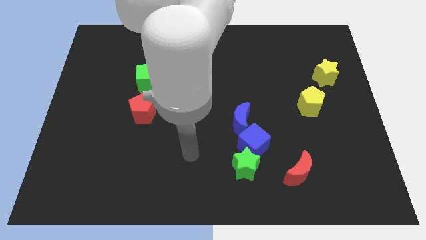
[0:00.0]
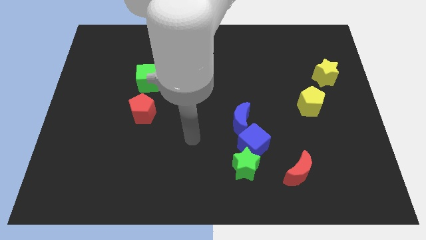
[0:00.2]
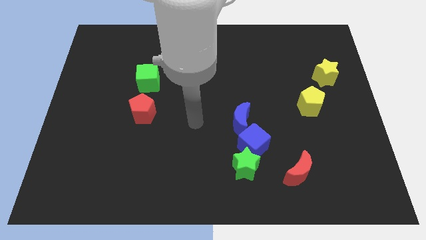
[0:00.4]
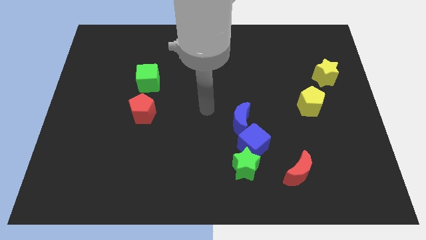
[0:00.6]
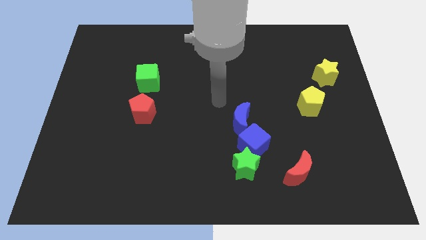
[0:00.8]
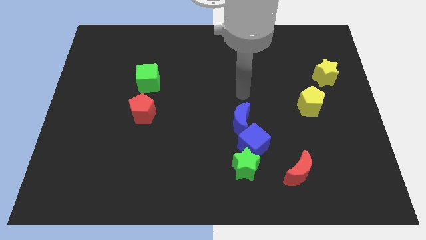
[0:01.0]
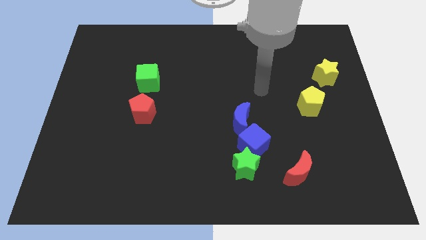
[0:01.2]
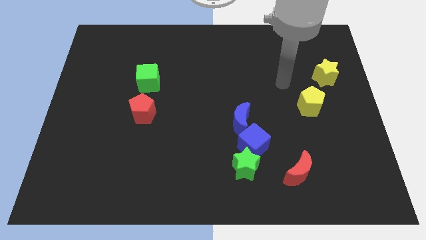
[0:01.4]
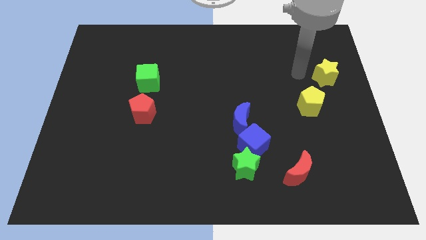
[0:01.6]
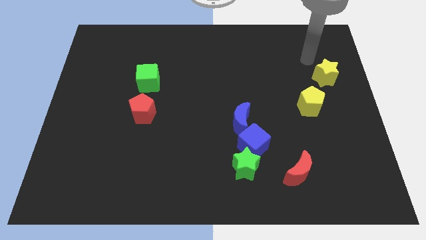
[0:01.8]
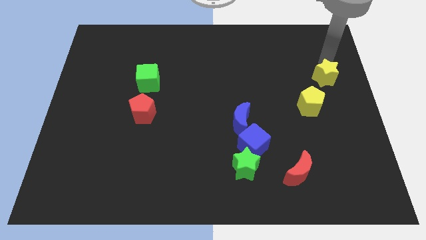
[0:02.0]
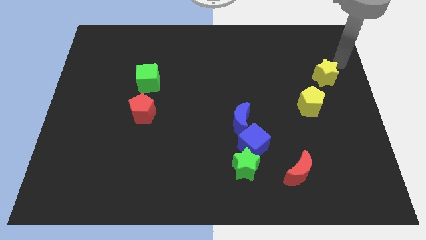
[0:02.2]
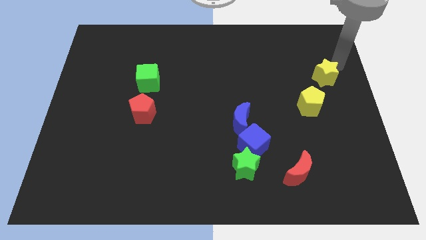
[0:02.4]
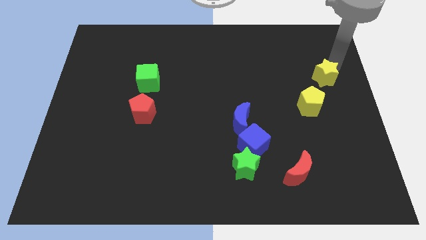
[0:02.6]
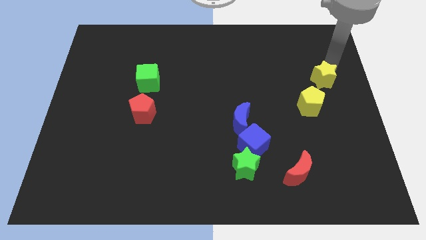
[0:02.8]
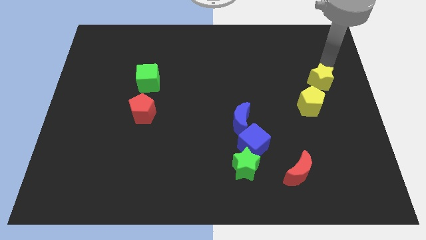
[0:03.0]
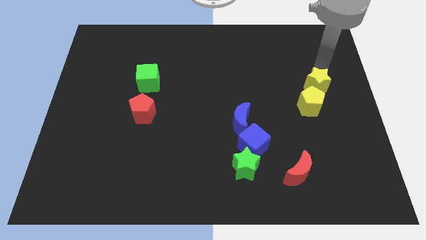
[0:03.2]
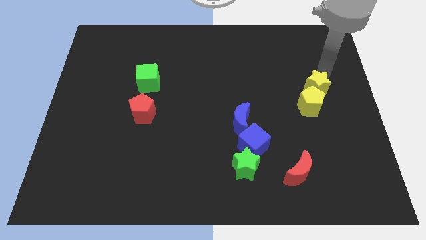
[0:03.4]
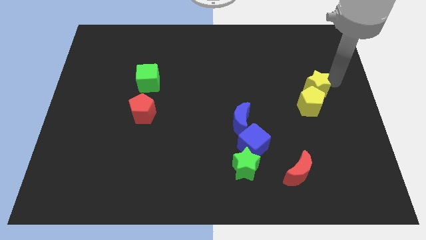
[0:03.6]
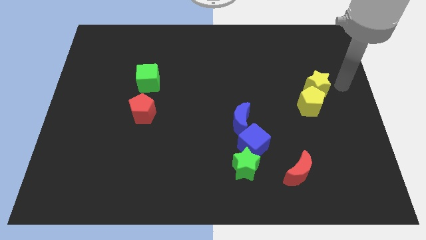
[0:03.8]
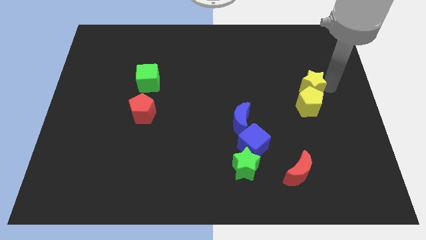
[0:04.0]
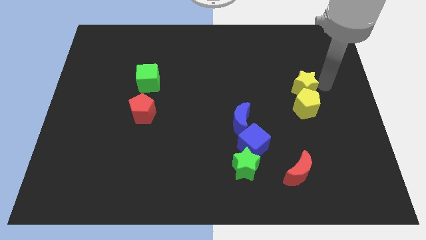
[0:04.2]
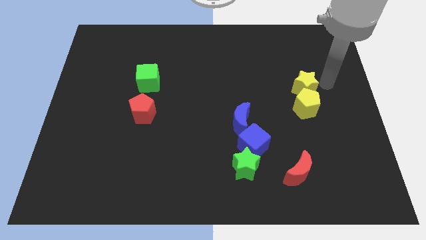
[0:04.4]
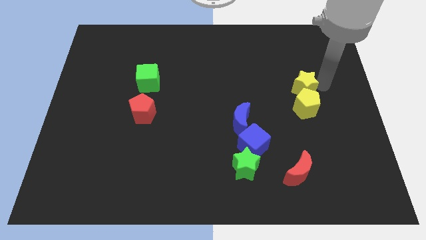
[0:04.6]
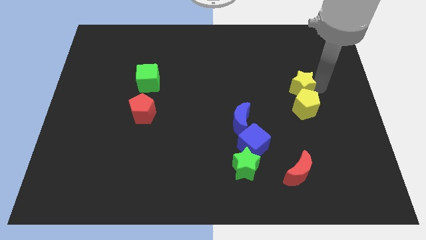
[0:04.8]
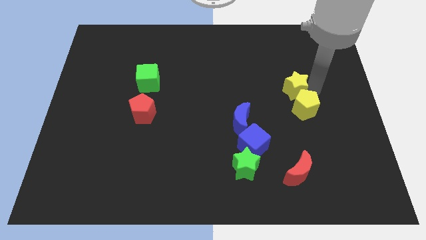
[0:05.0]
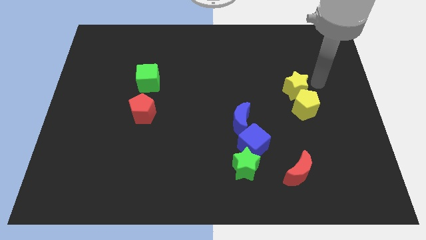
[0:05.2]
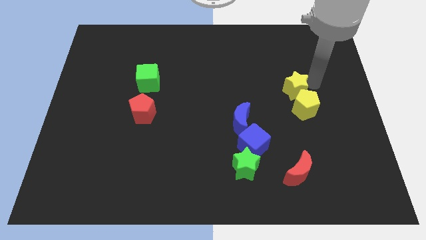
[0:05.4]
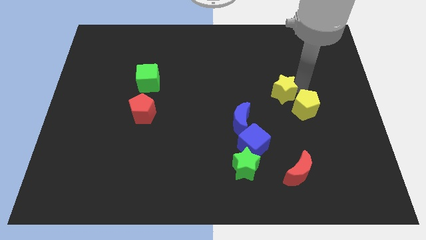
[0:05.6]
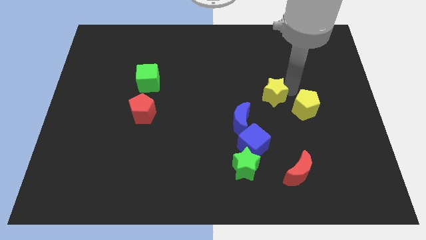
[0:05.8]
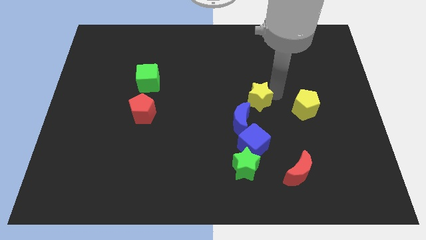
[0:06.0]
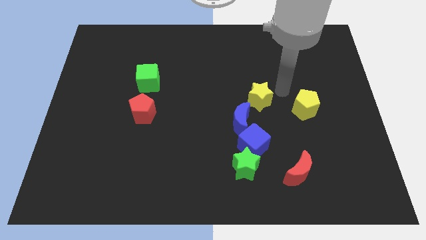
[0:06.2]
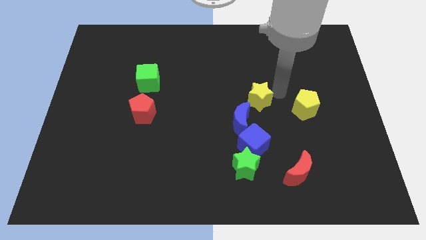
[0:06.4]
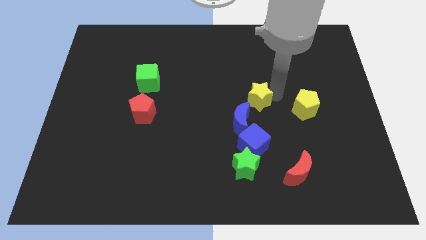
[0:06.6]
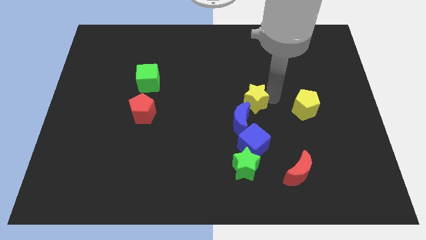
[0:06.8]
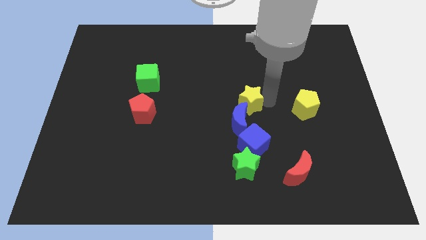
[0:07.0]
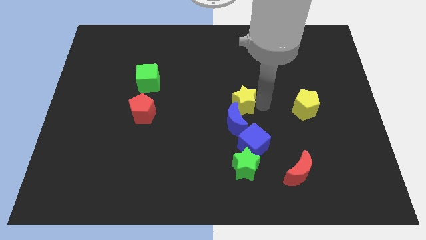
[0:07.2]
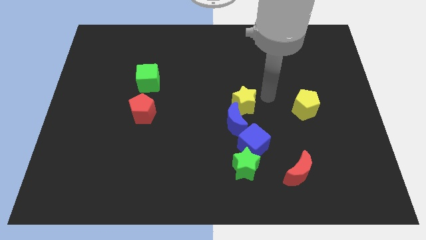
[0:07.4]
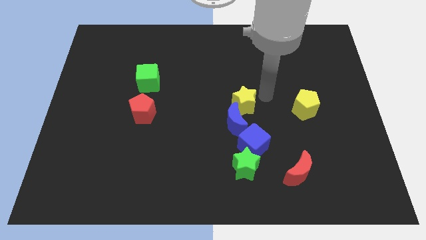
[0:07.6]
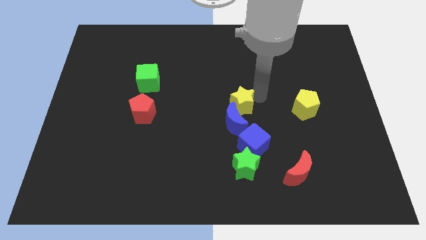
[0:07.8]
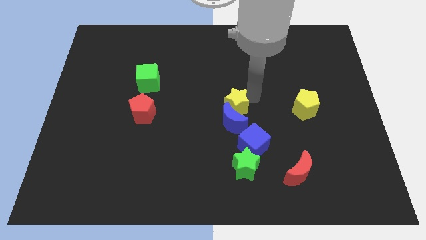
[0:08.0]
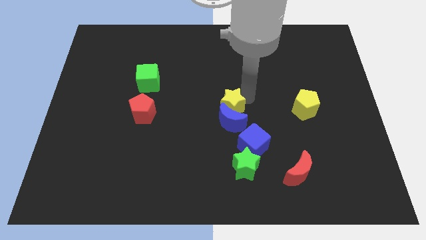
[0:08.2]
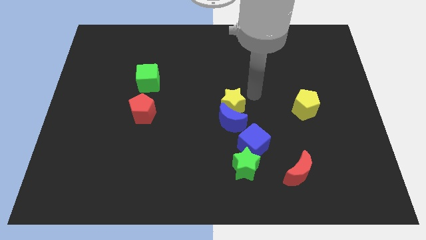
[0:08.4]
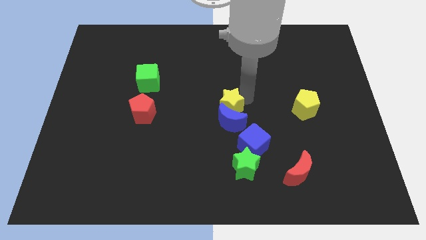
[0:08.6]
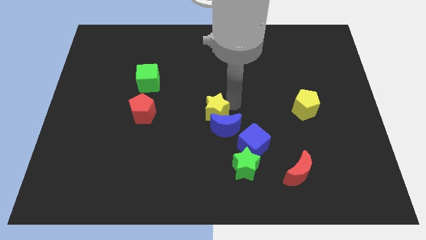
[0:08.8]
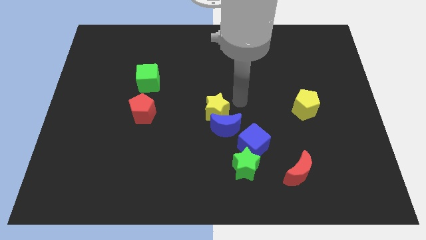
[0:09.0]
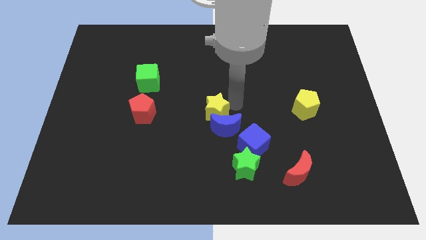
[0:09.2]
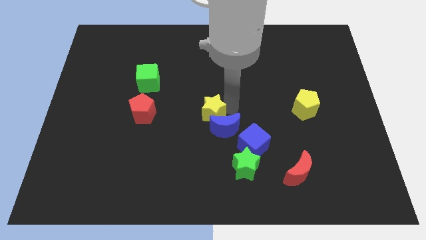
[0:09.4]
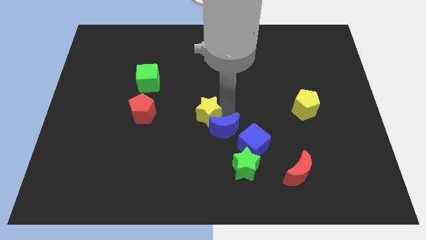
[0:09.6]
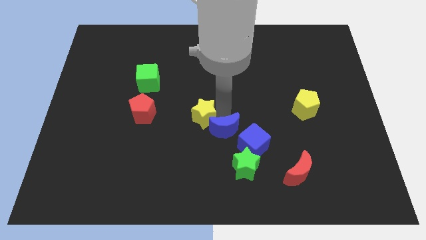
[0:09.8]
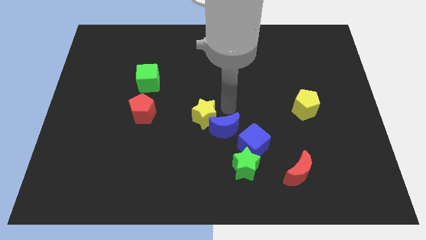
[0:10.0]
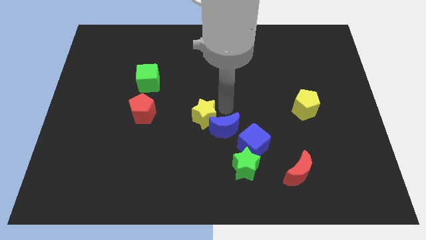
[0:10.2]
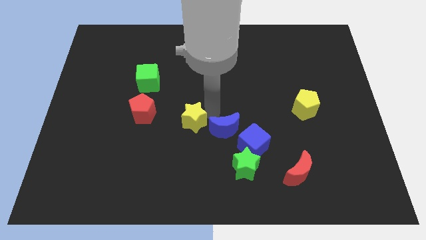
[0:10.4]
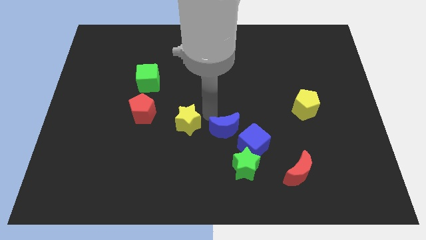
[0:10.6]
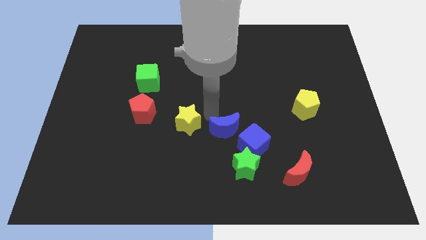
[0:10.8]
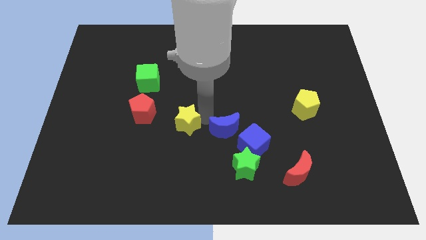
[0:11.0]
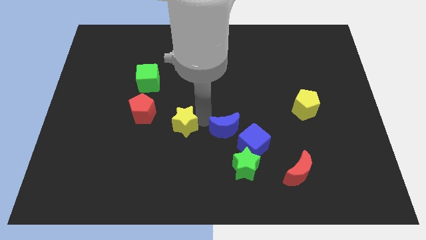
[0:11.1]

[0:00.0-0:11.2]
put the yellow star to the bottom right side of the red pentagon

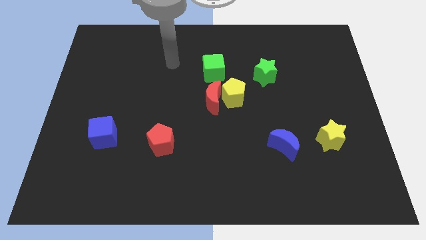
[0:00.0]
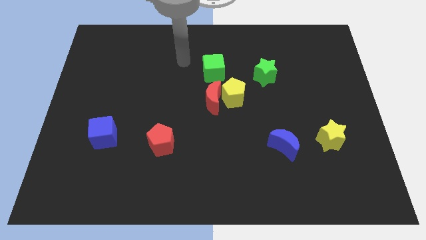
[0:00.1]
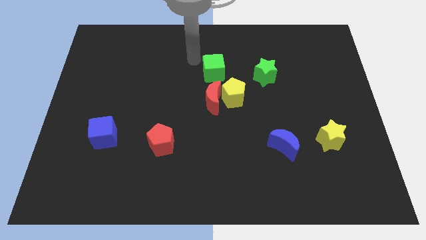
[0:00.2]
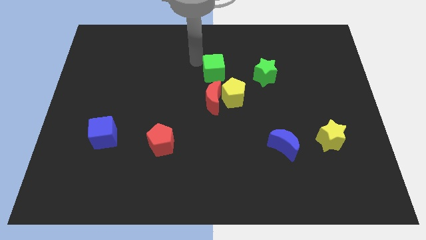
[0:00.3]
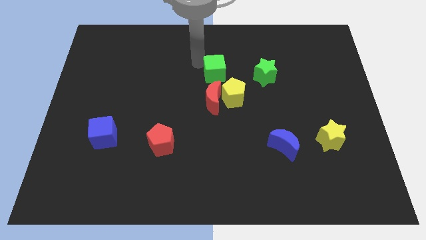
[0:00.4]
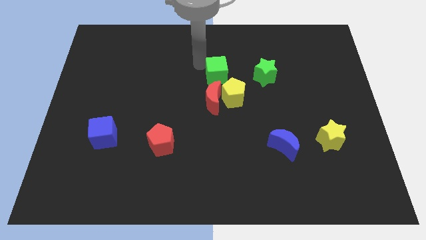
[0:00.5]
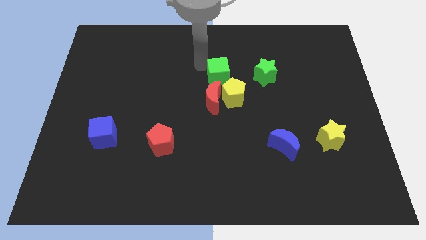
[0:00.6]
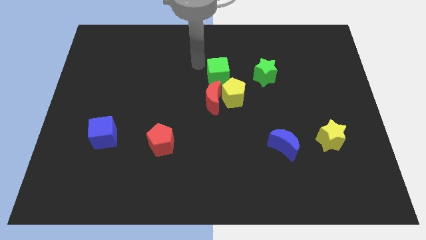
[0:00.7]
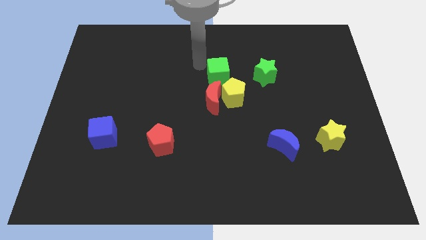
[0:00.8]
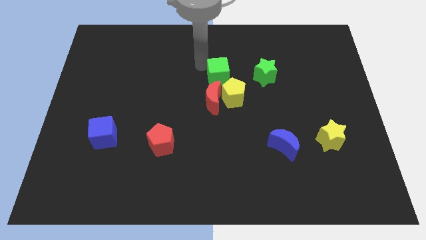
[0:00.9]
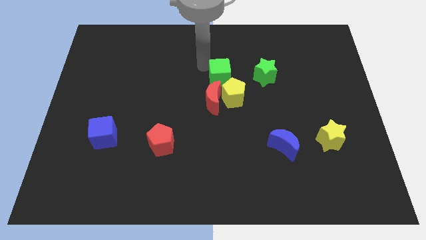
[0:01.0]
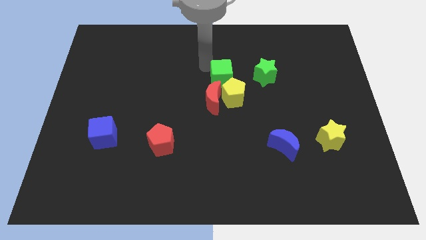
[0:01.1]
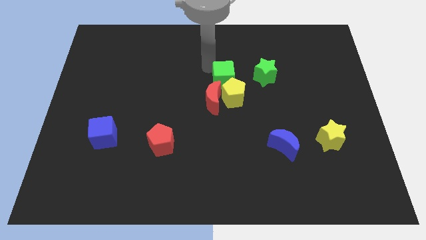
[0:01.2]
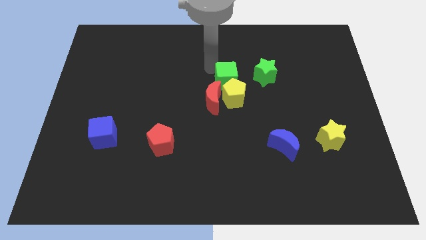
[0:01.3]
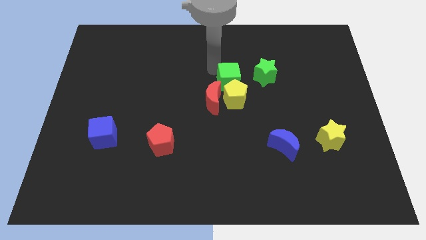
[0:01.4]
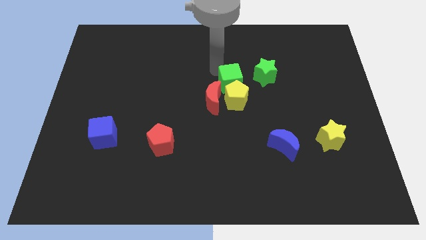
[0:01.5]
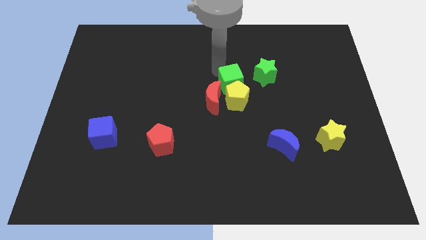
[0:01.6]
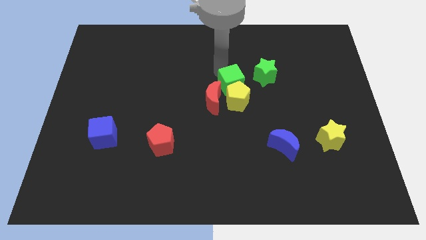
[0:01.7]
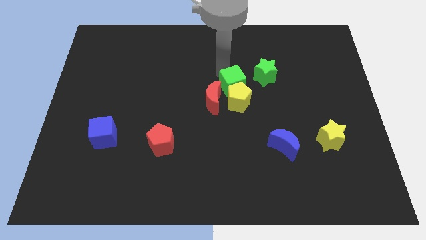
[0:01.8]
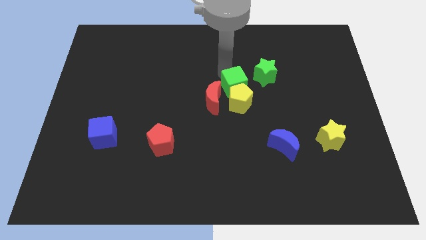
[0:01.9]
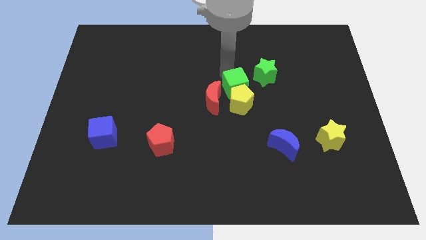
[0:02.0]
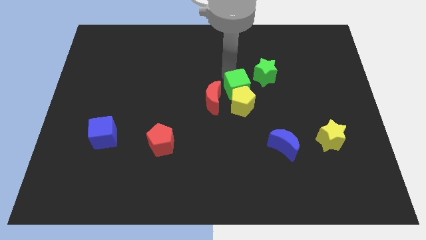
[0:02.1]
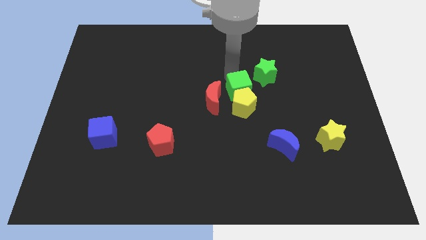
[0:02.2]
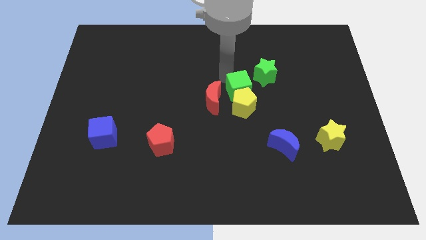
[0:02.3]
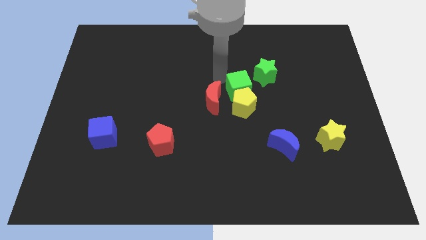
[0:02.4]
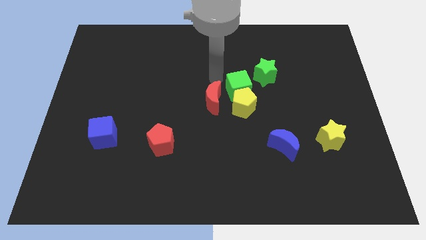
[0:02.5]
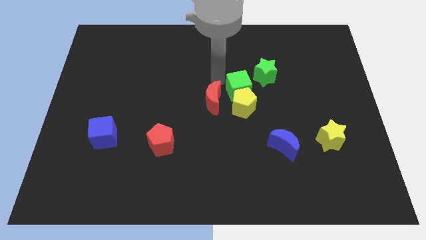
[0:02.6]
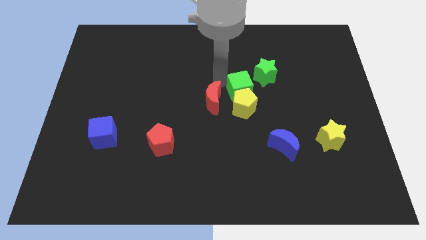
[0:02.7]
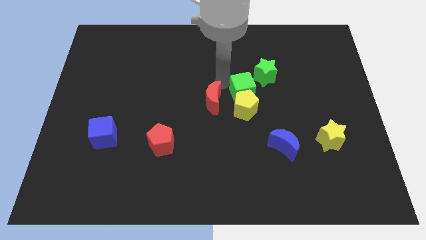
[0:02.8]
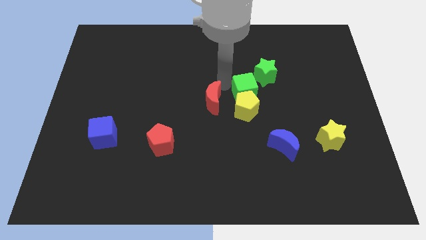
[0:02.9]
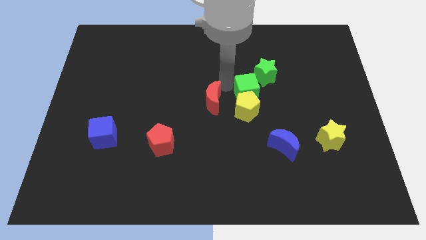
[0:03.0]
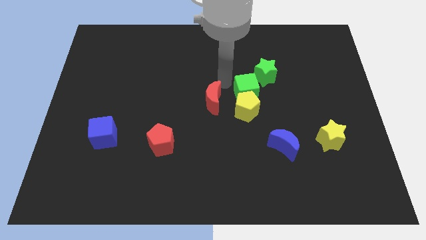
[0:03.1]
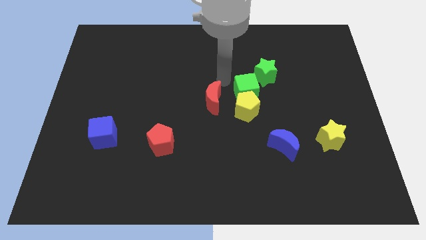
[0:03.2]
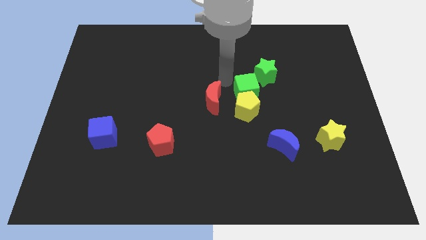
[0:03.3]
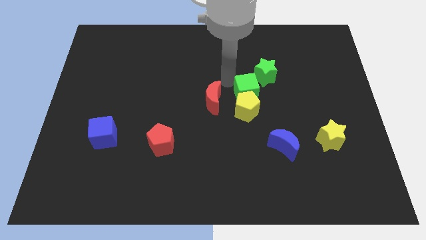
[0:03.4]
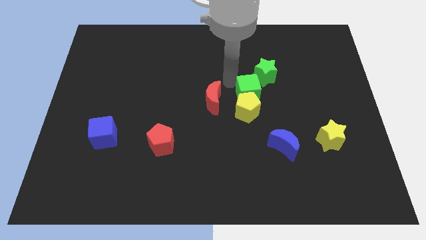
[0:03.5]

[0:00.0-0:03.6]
push the green cube to the bottom side of the green star
